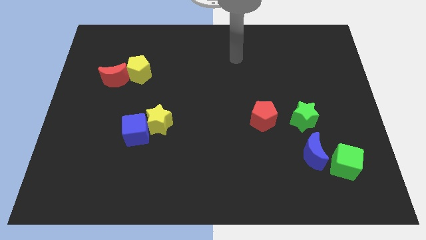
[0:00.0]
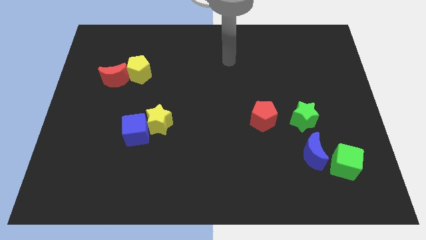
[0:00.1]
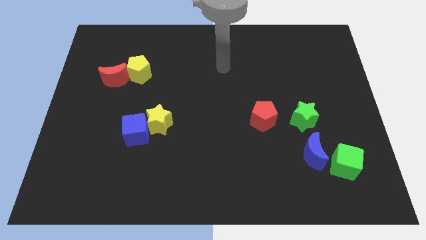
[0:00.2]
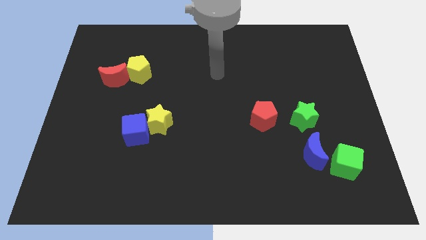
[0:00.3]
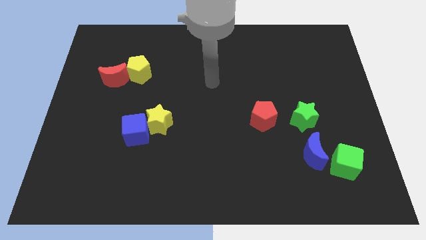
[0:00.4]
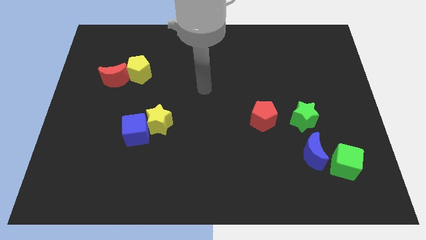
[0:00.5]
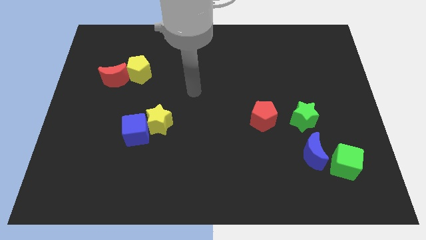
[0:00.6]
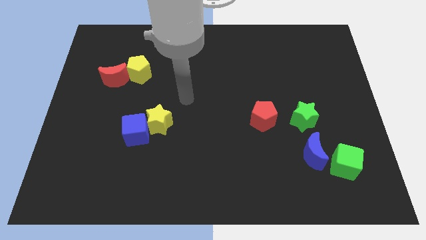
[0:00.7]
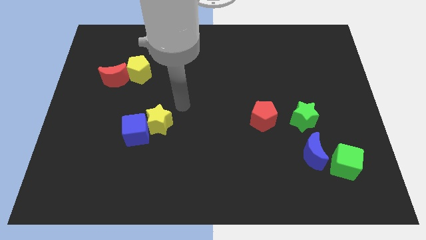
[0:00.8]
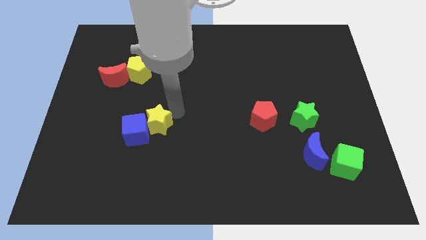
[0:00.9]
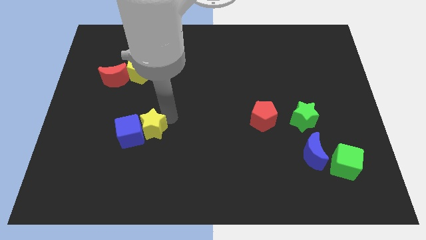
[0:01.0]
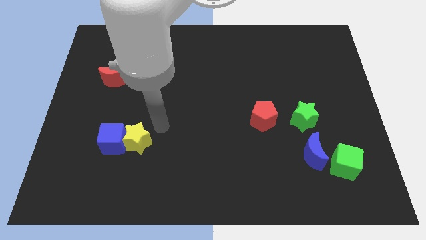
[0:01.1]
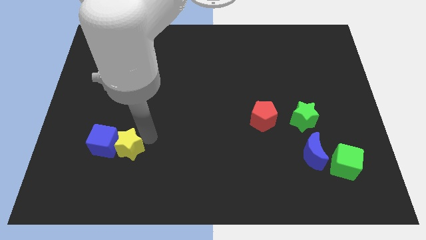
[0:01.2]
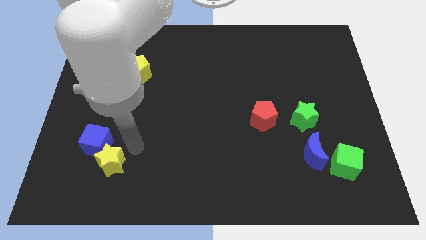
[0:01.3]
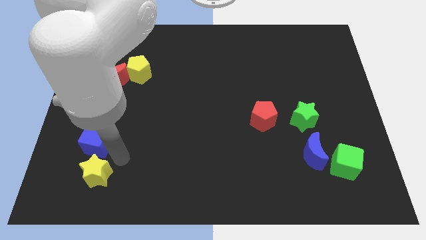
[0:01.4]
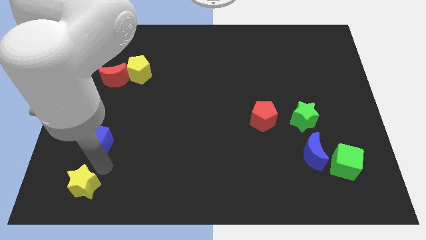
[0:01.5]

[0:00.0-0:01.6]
separate the blue cube from the yellow star

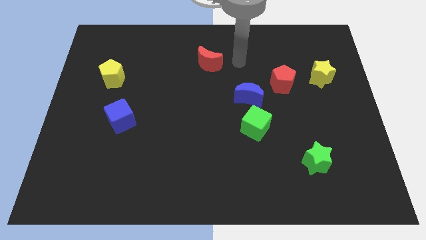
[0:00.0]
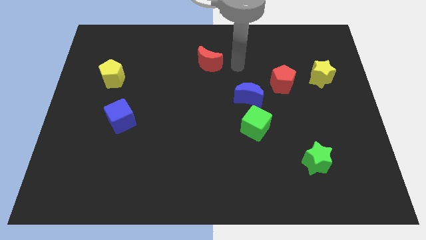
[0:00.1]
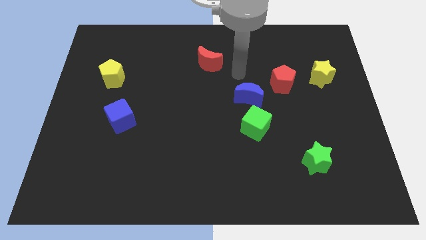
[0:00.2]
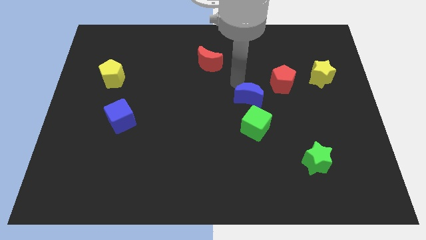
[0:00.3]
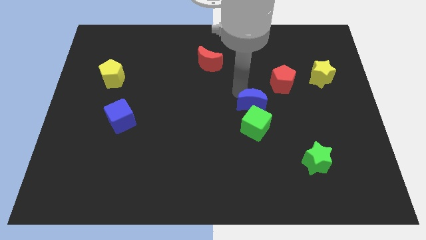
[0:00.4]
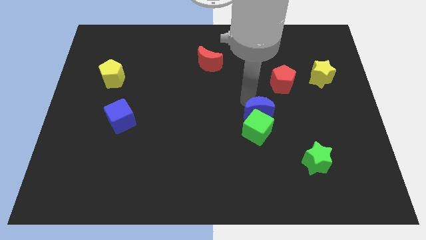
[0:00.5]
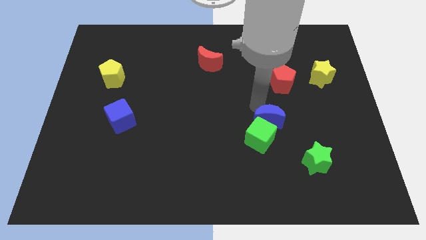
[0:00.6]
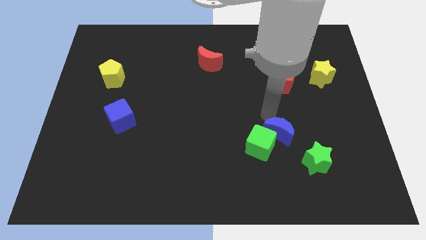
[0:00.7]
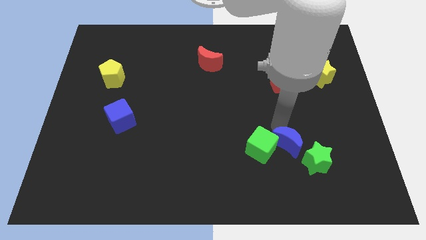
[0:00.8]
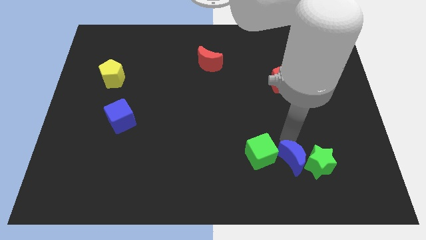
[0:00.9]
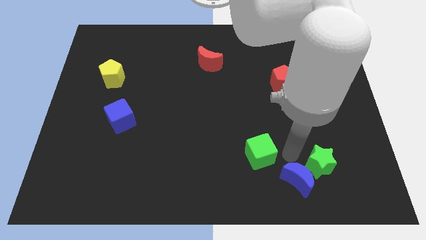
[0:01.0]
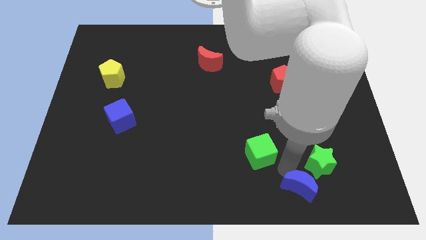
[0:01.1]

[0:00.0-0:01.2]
pull the green cube apart from the blue moon

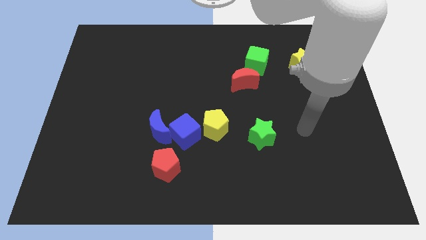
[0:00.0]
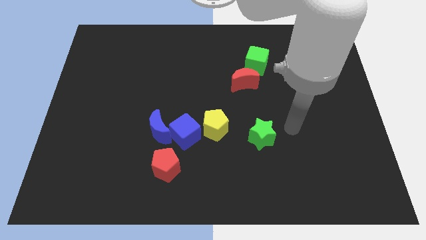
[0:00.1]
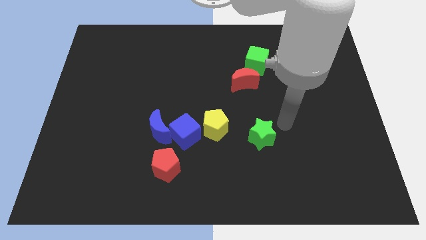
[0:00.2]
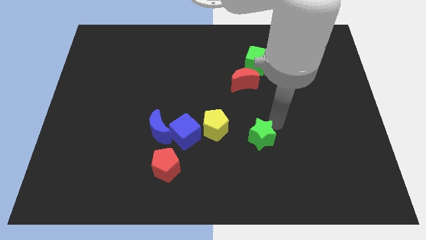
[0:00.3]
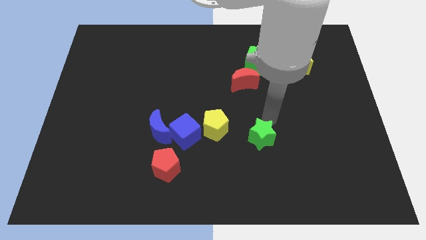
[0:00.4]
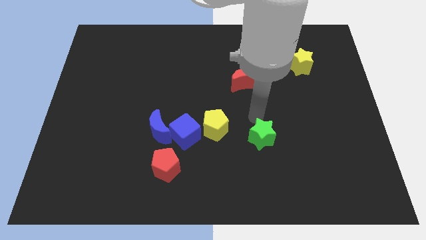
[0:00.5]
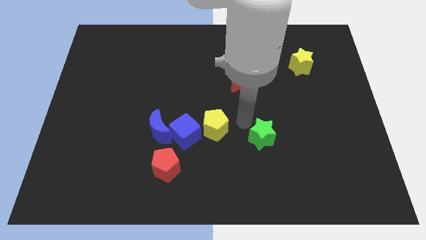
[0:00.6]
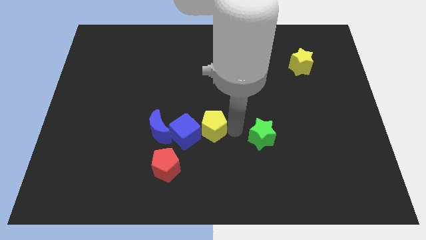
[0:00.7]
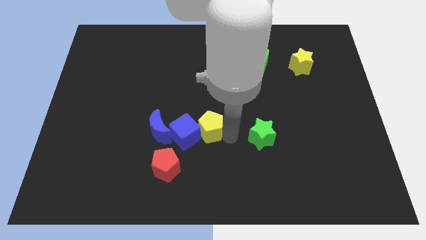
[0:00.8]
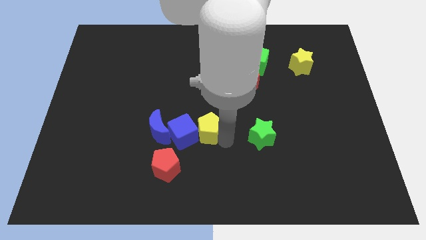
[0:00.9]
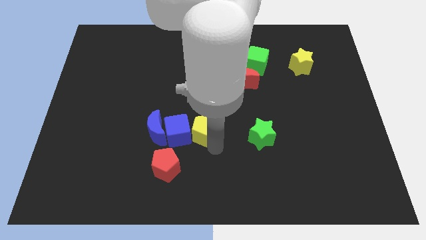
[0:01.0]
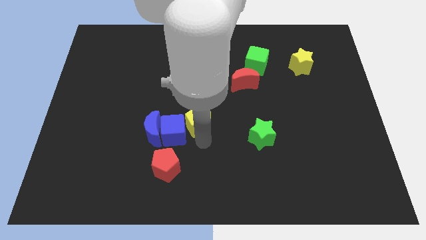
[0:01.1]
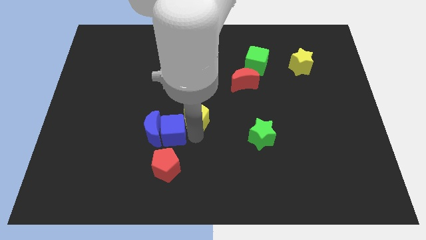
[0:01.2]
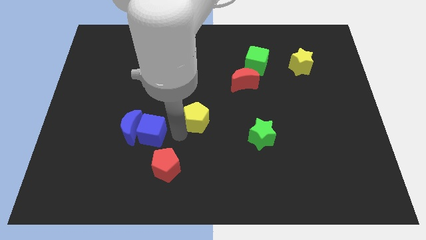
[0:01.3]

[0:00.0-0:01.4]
pull the yellow pentagon apart from the blue cube

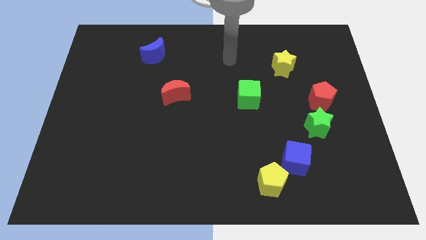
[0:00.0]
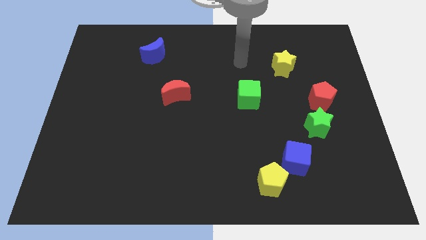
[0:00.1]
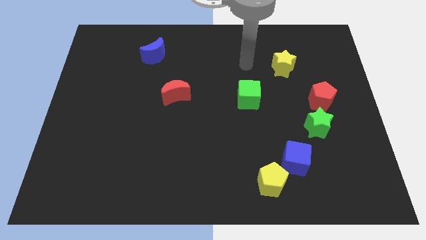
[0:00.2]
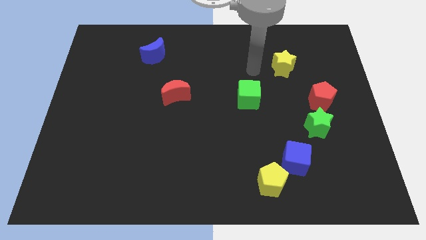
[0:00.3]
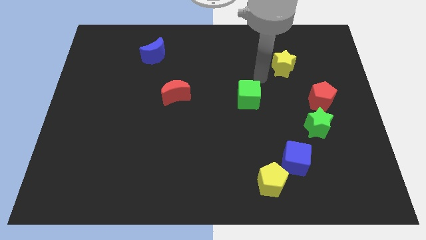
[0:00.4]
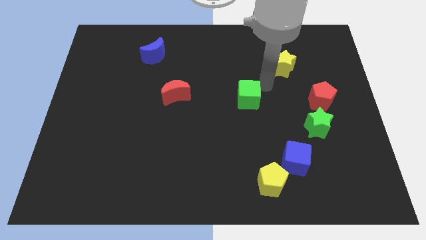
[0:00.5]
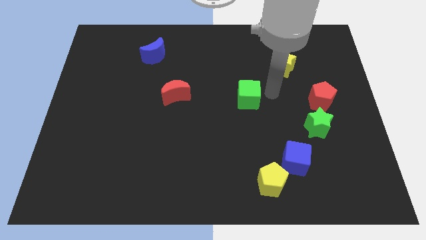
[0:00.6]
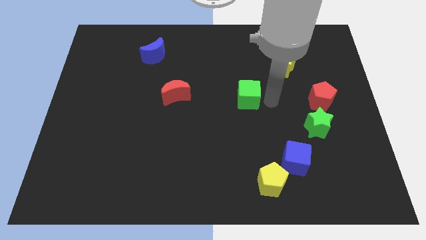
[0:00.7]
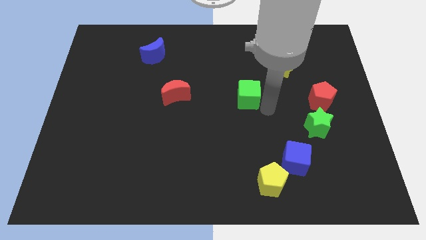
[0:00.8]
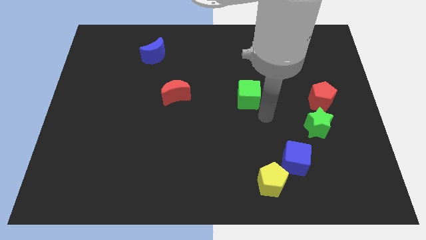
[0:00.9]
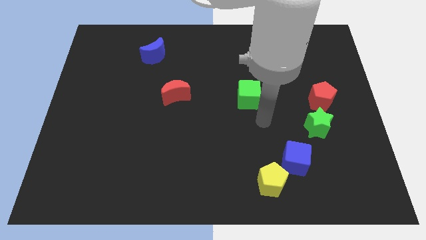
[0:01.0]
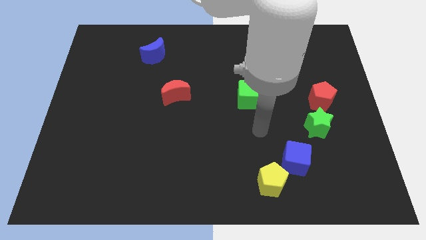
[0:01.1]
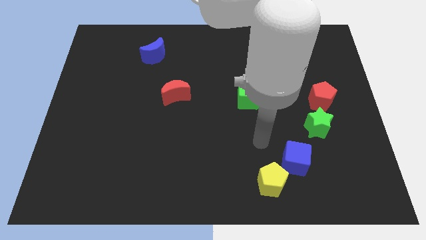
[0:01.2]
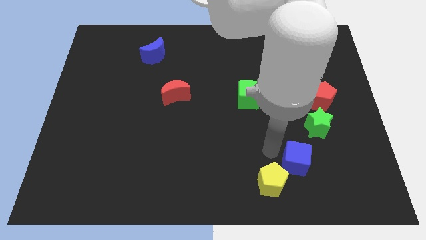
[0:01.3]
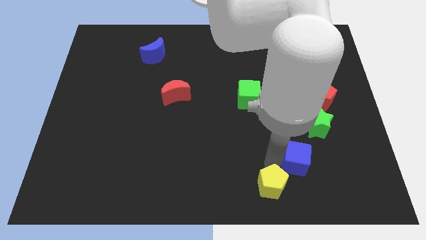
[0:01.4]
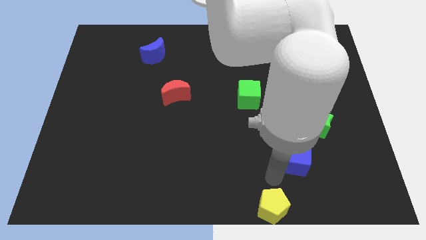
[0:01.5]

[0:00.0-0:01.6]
separate the blue cube from the yellow pentagon

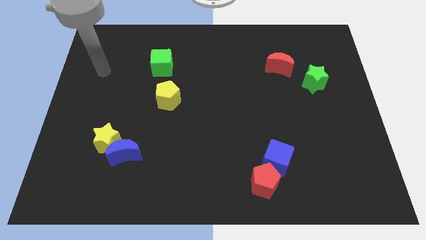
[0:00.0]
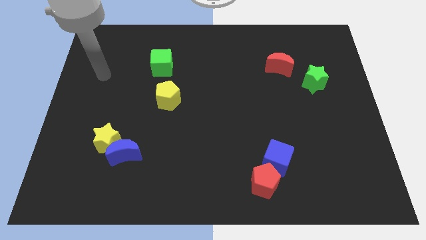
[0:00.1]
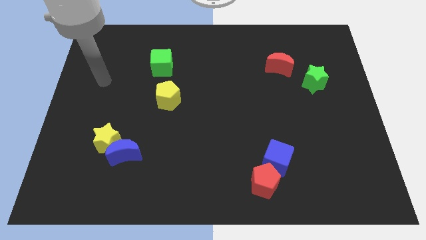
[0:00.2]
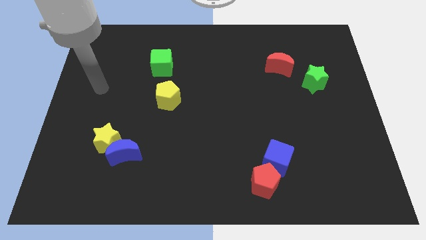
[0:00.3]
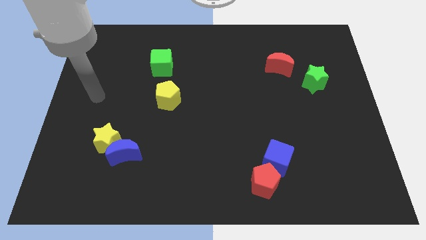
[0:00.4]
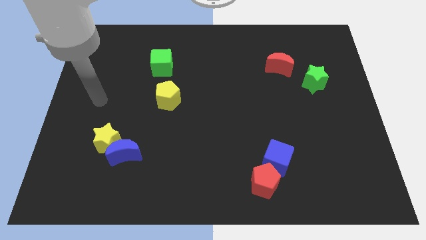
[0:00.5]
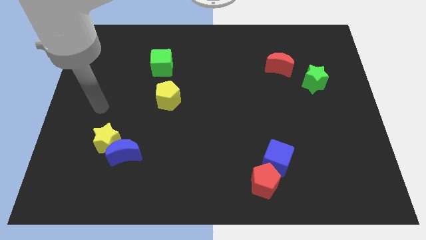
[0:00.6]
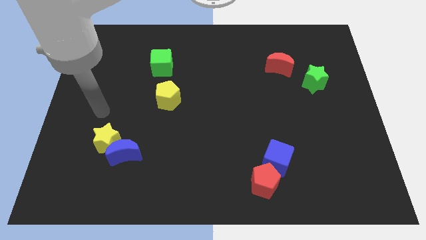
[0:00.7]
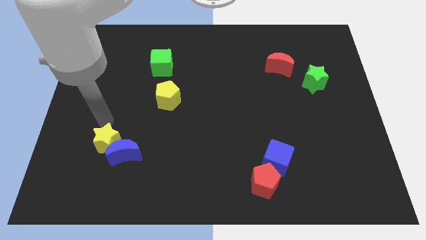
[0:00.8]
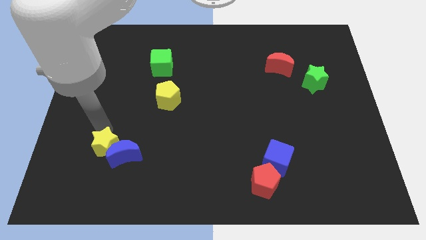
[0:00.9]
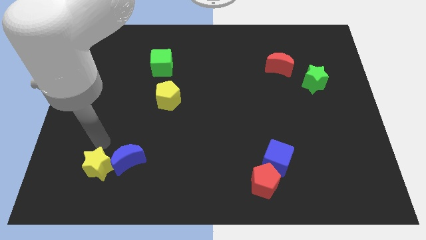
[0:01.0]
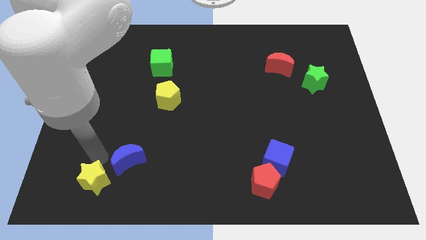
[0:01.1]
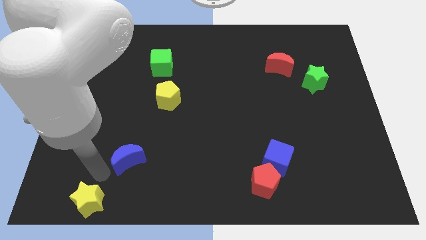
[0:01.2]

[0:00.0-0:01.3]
separate the blue moon from the yellow star

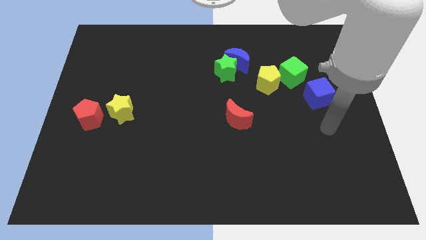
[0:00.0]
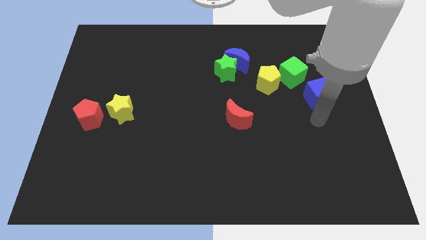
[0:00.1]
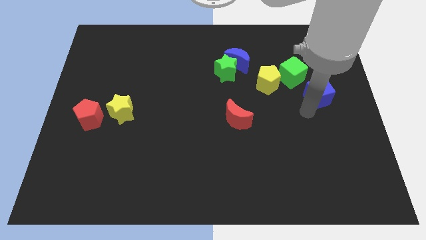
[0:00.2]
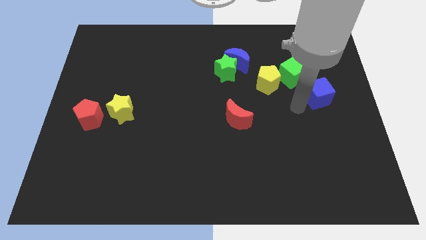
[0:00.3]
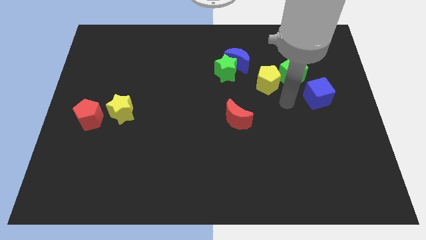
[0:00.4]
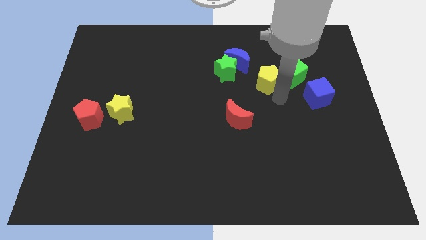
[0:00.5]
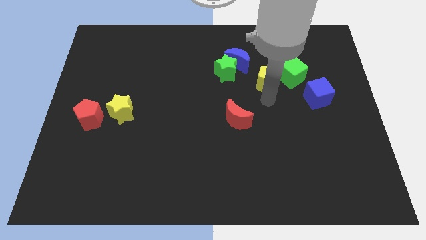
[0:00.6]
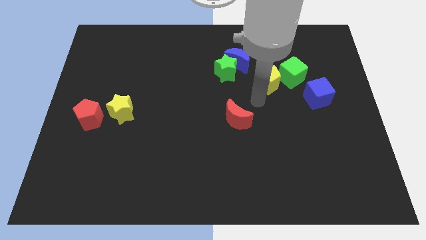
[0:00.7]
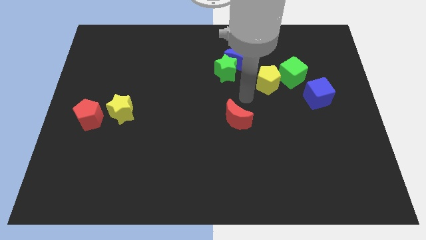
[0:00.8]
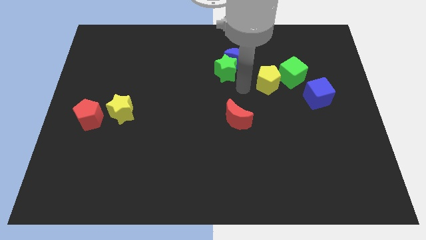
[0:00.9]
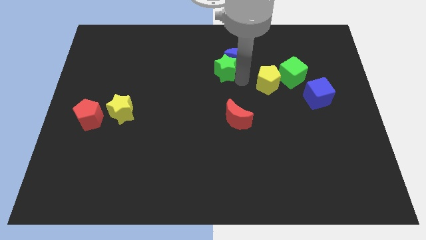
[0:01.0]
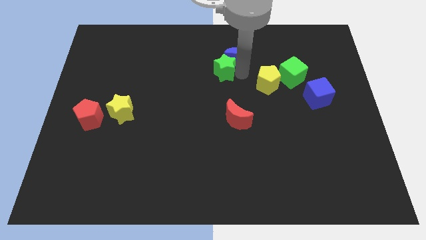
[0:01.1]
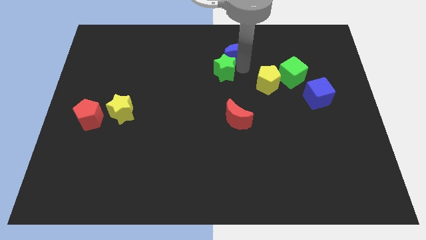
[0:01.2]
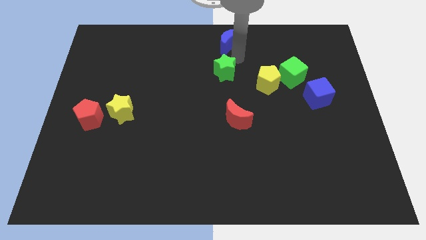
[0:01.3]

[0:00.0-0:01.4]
pull the green star apart from the blue moon

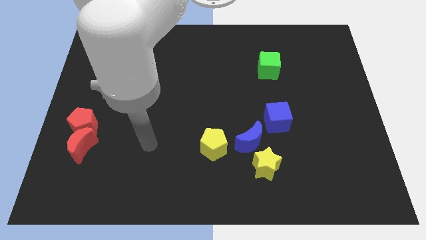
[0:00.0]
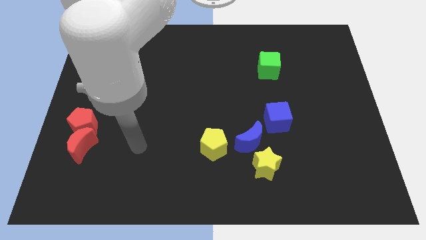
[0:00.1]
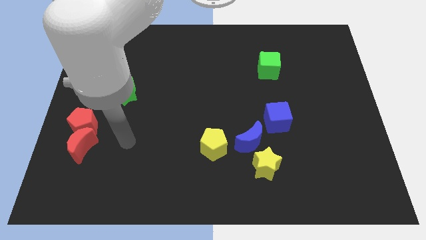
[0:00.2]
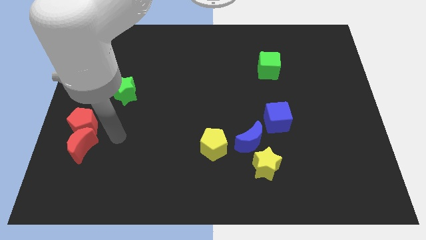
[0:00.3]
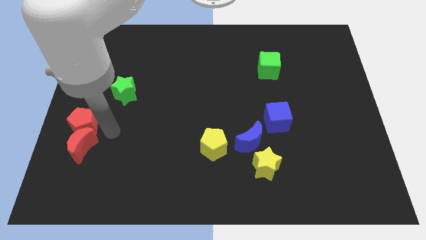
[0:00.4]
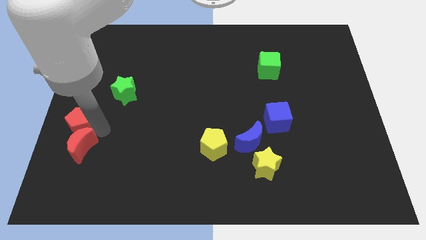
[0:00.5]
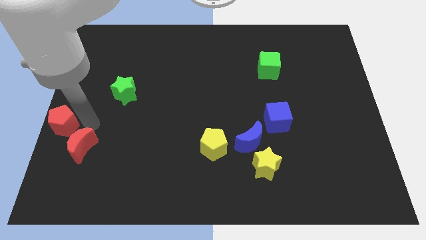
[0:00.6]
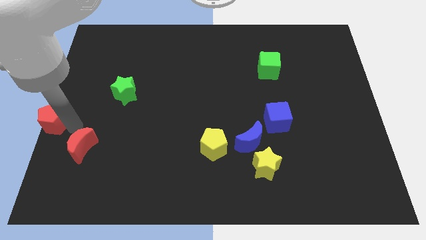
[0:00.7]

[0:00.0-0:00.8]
separate the red moon from the red pentagon

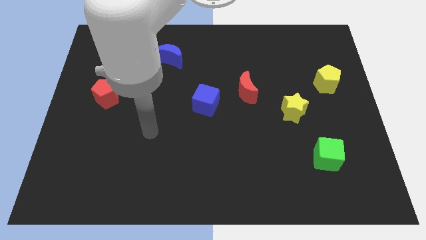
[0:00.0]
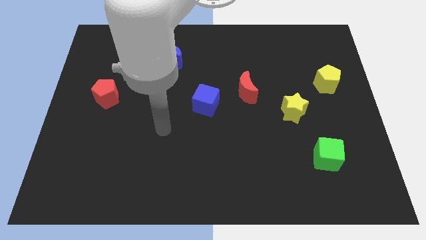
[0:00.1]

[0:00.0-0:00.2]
separate the red moon from the blue cube

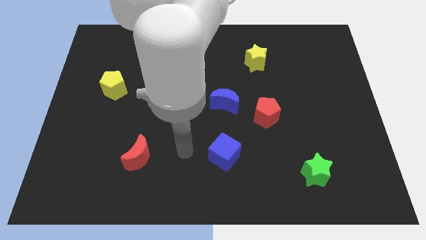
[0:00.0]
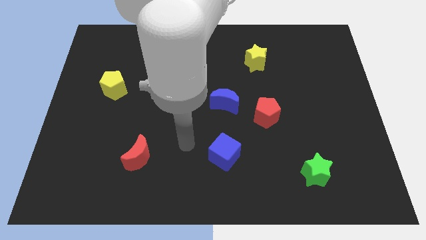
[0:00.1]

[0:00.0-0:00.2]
pull the red pentagon apart from the blue moon
